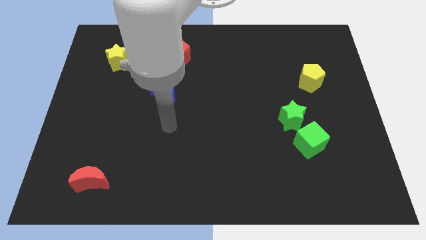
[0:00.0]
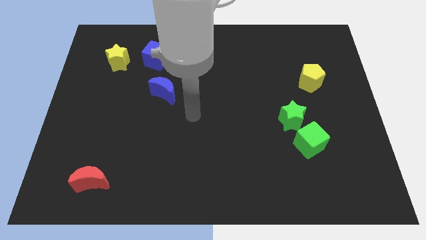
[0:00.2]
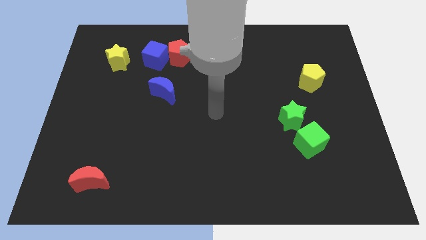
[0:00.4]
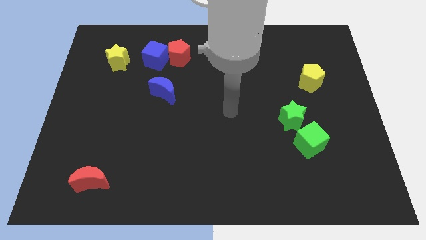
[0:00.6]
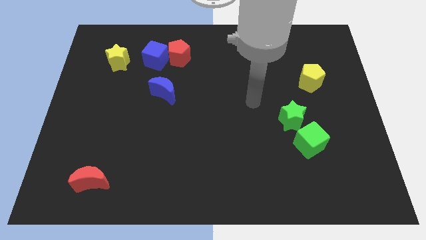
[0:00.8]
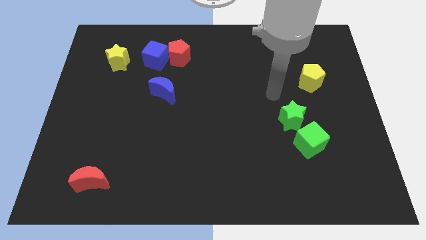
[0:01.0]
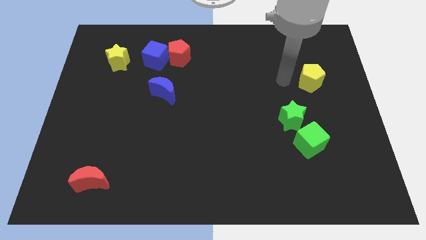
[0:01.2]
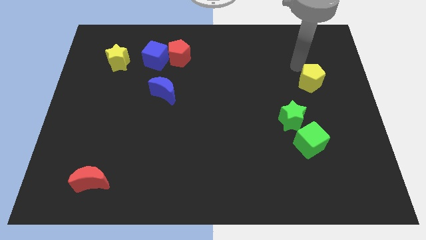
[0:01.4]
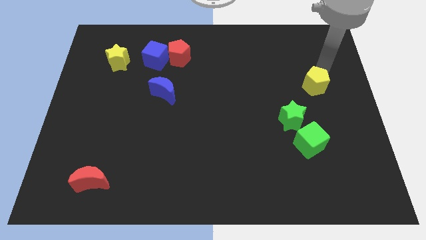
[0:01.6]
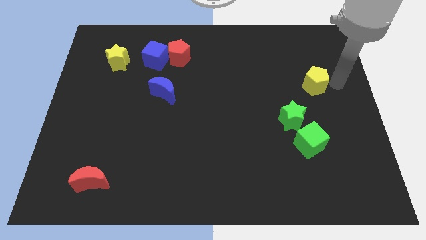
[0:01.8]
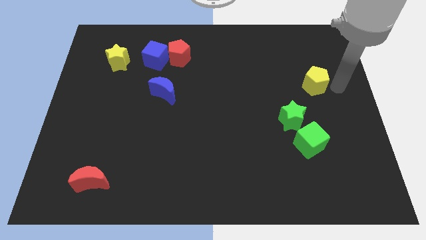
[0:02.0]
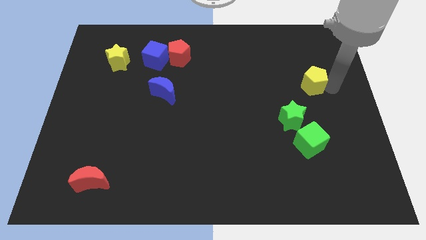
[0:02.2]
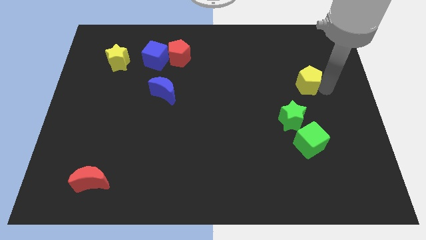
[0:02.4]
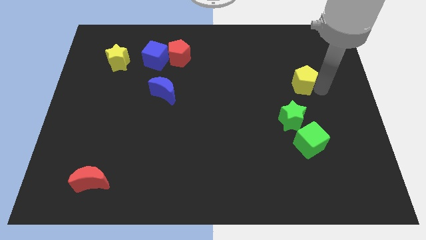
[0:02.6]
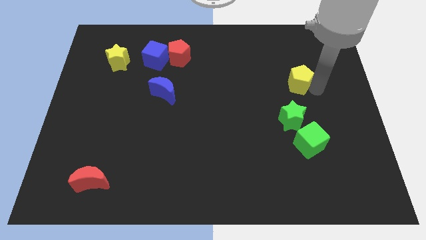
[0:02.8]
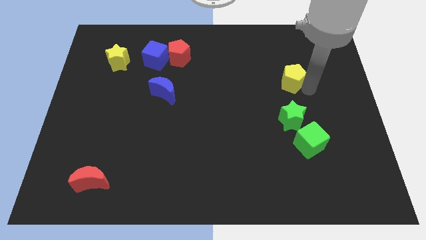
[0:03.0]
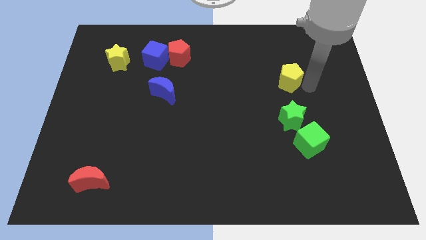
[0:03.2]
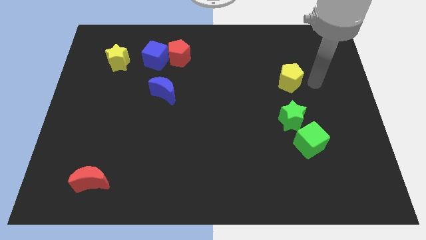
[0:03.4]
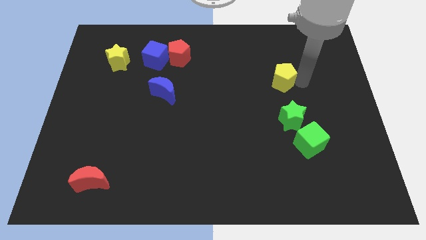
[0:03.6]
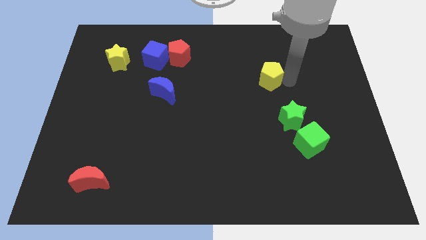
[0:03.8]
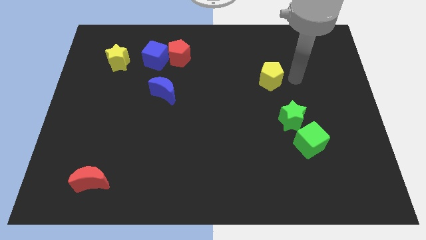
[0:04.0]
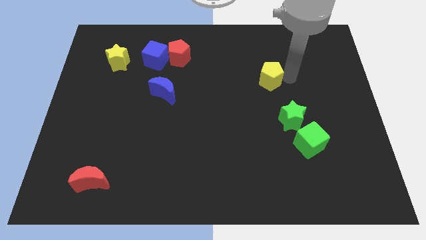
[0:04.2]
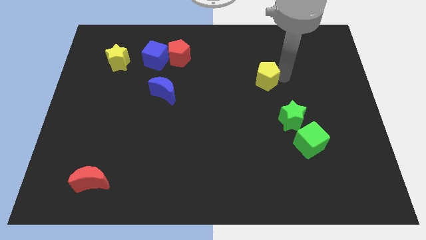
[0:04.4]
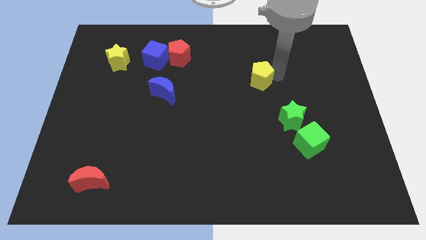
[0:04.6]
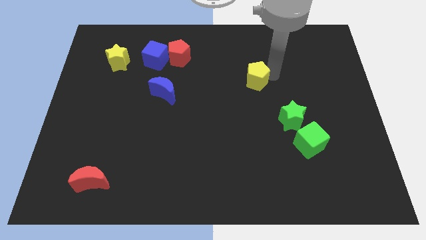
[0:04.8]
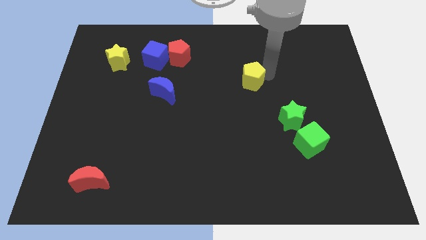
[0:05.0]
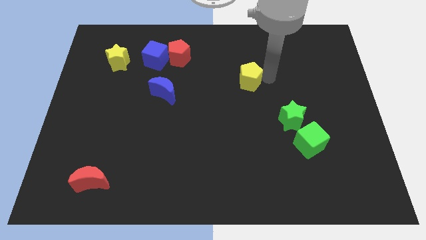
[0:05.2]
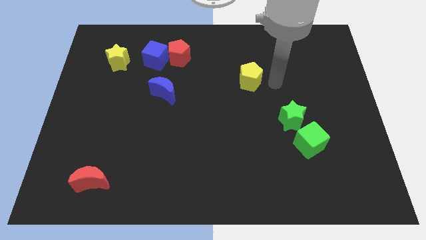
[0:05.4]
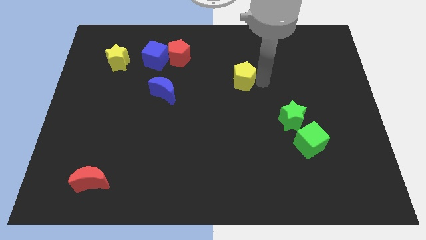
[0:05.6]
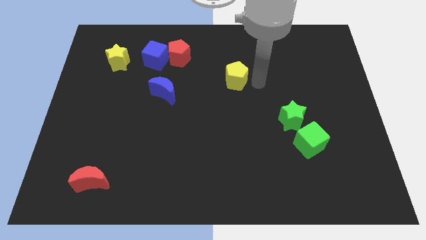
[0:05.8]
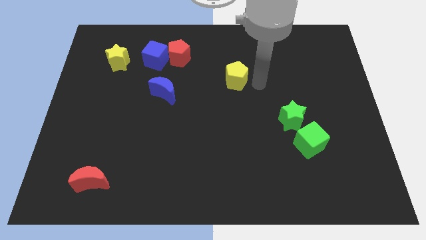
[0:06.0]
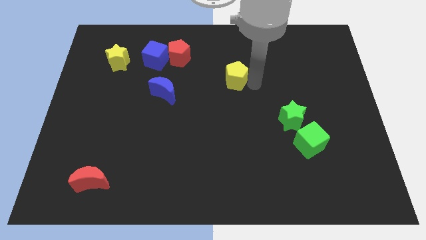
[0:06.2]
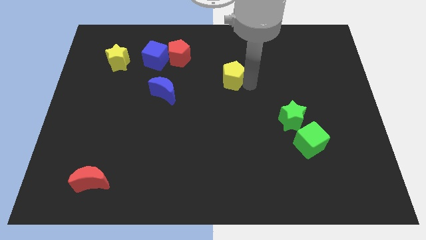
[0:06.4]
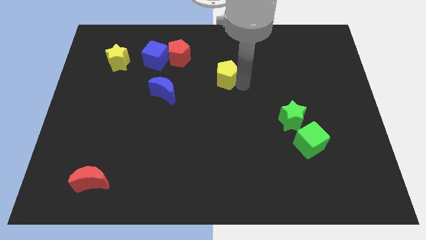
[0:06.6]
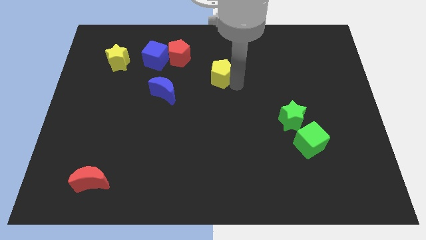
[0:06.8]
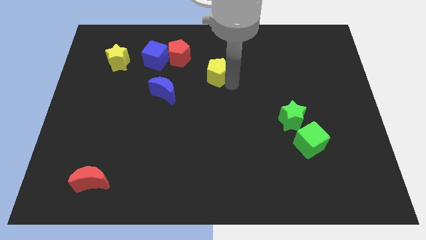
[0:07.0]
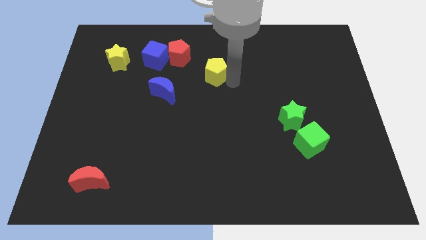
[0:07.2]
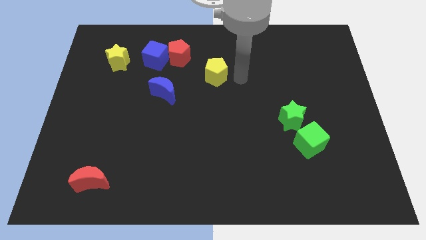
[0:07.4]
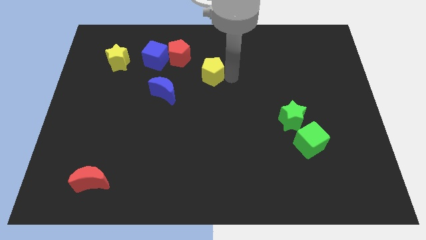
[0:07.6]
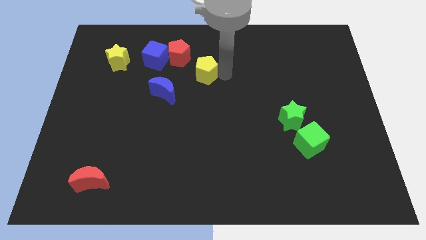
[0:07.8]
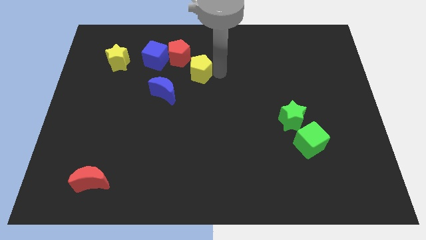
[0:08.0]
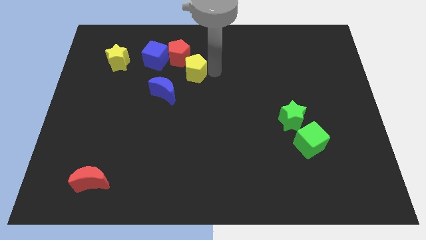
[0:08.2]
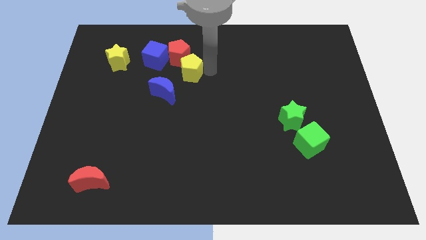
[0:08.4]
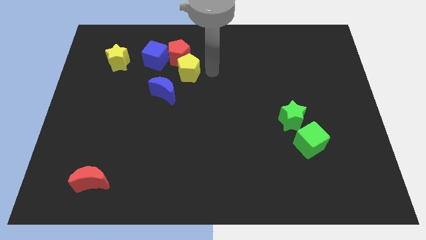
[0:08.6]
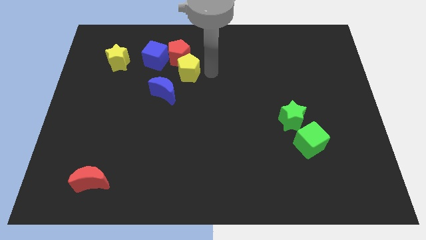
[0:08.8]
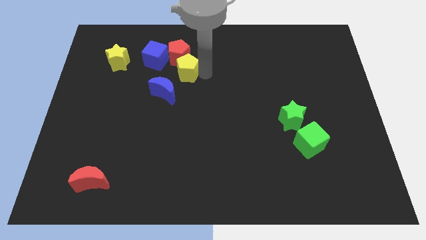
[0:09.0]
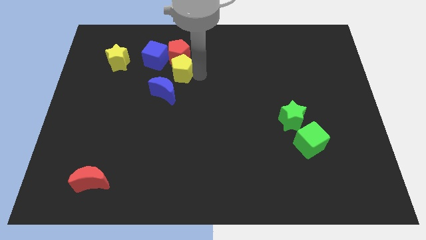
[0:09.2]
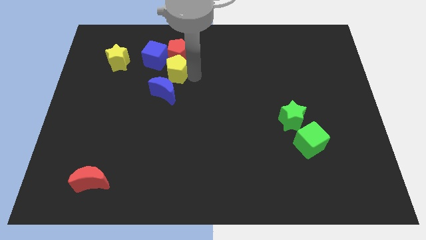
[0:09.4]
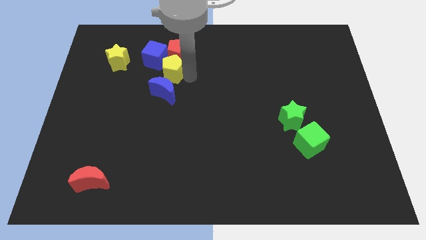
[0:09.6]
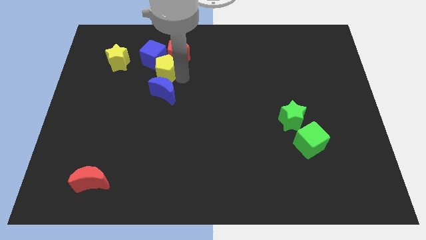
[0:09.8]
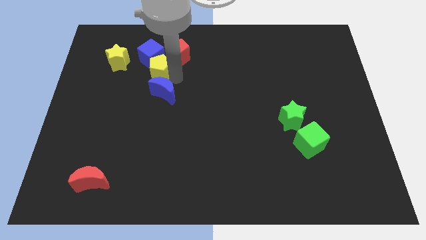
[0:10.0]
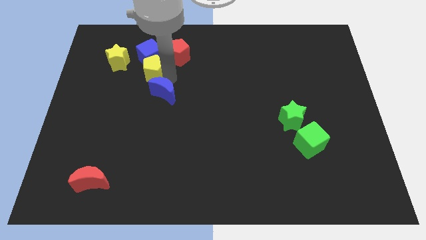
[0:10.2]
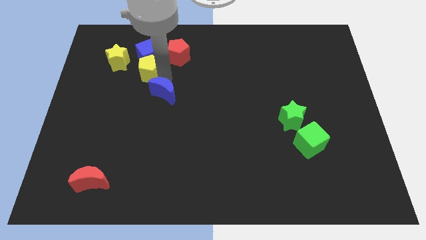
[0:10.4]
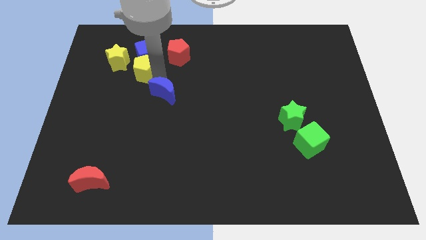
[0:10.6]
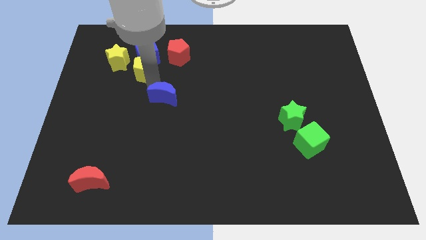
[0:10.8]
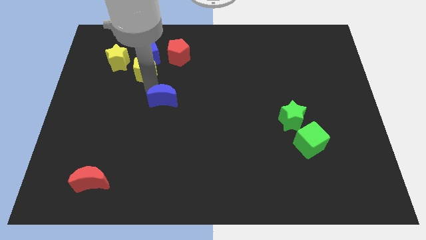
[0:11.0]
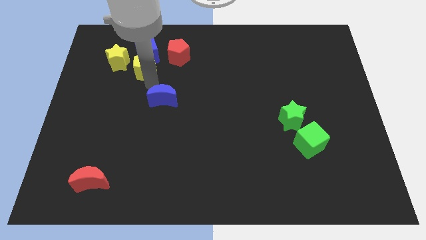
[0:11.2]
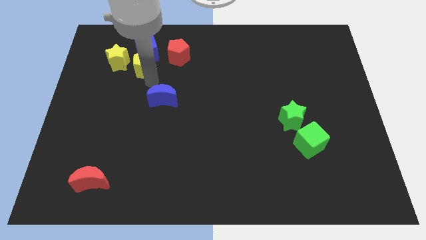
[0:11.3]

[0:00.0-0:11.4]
slide the yellow pentagon to the left of the red pentagon

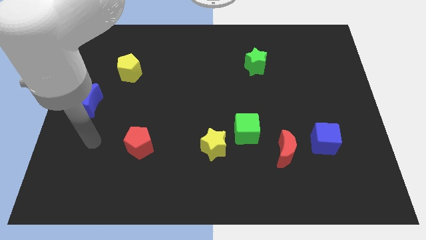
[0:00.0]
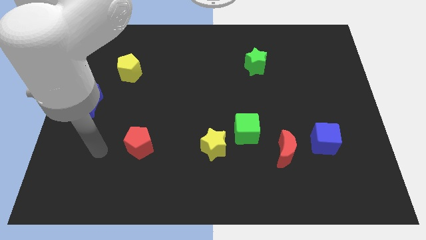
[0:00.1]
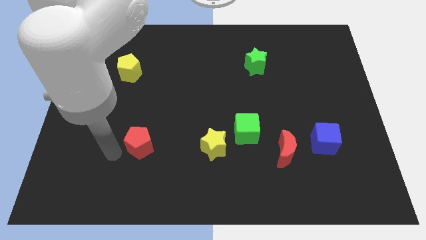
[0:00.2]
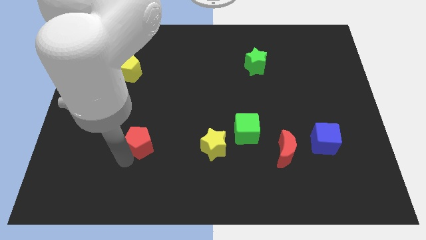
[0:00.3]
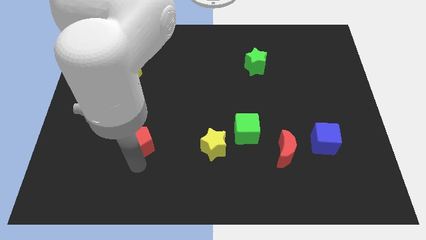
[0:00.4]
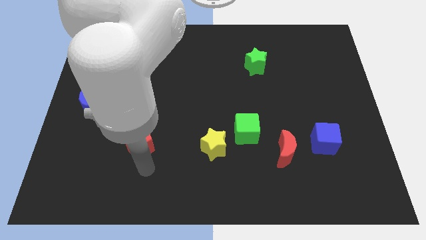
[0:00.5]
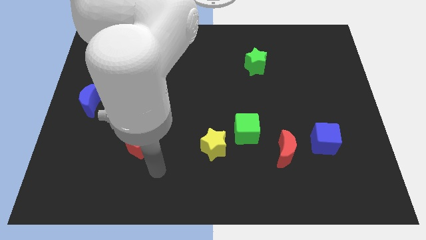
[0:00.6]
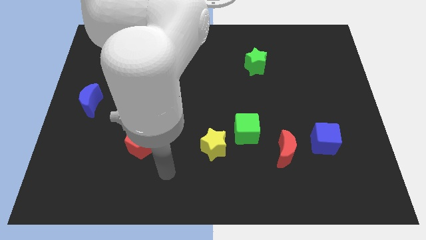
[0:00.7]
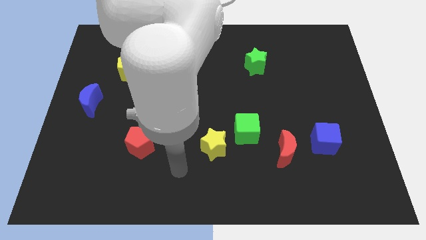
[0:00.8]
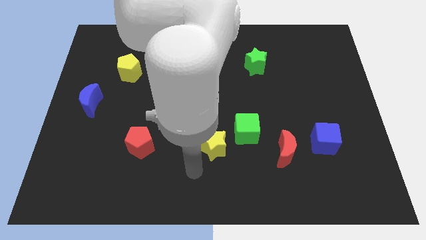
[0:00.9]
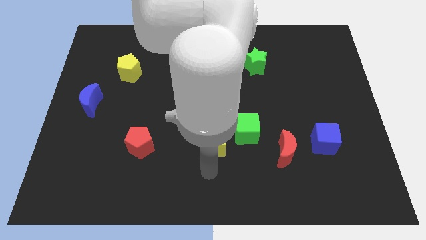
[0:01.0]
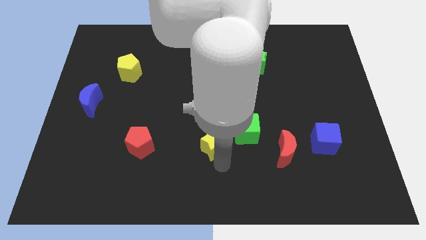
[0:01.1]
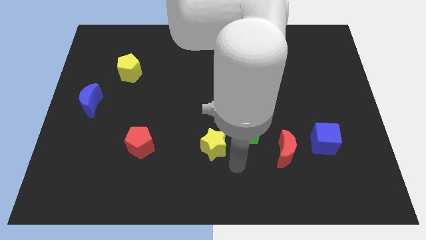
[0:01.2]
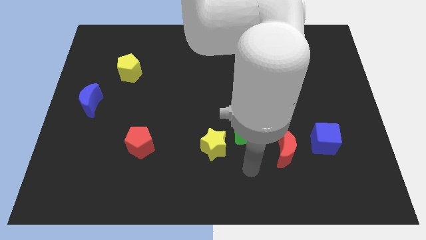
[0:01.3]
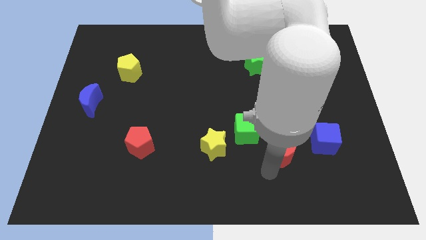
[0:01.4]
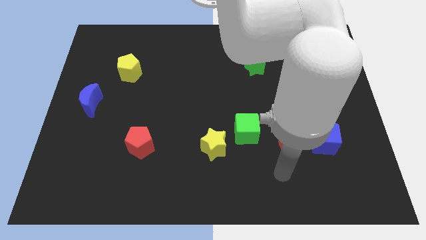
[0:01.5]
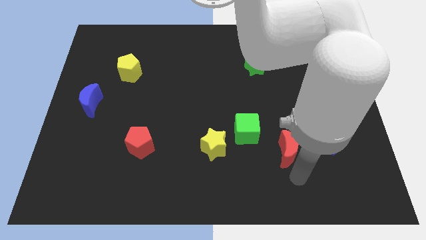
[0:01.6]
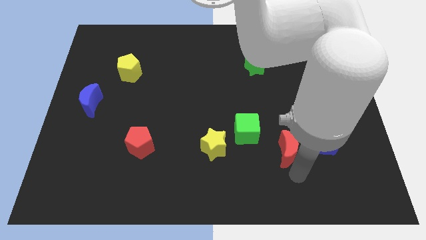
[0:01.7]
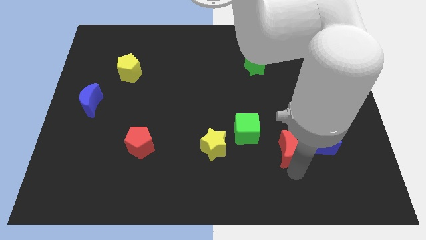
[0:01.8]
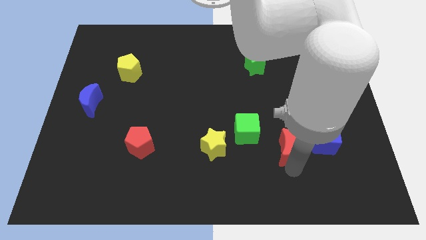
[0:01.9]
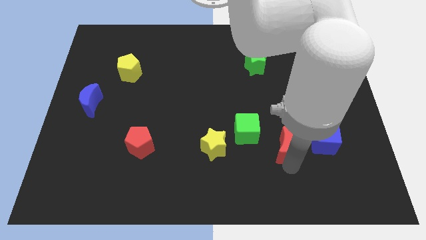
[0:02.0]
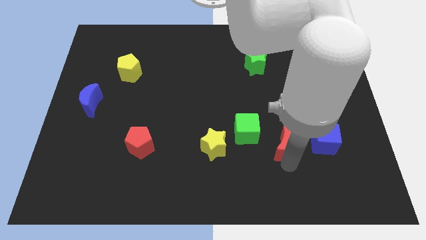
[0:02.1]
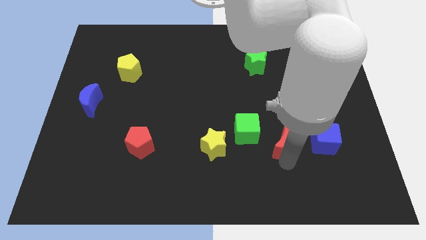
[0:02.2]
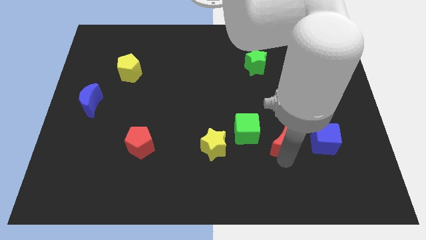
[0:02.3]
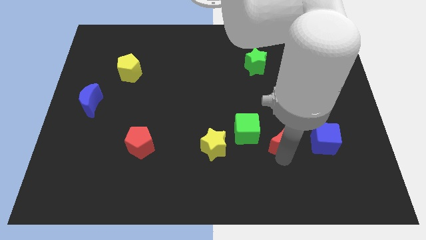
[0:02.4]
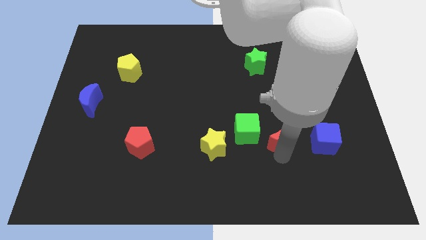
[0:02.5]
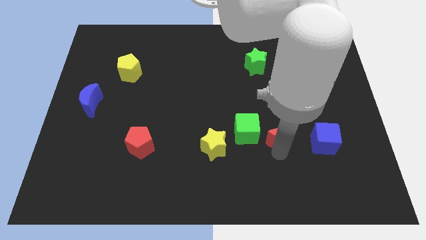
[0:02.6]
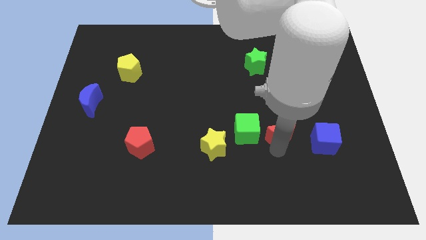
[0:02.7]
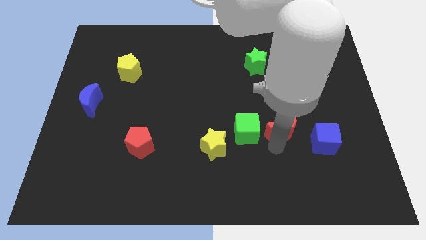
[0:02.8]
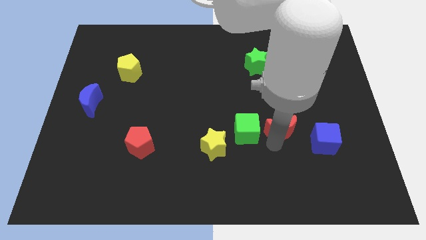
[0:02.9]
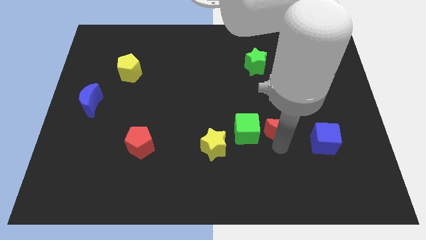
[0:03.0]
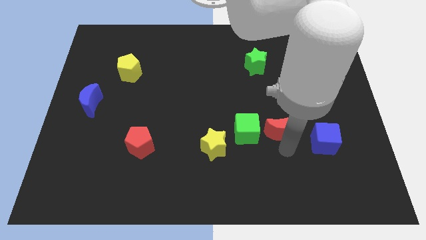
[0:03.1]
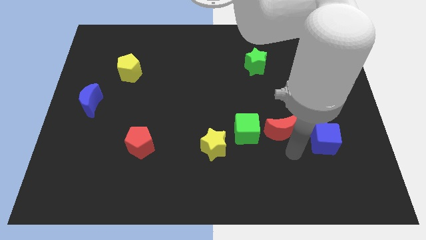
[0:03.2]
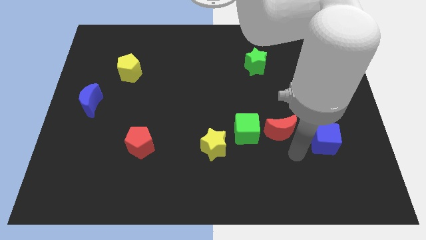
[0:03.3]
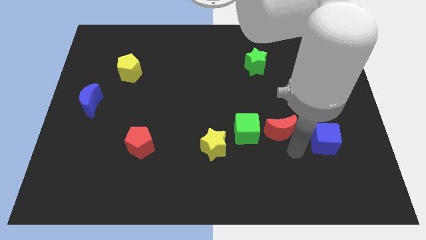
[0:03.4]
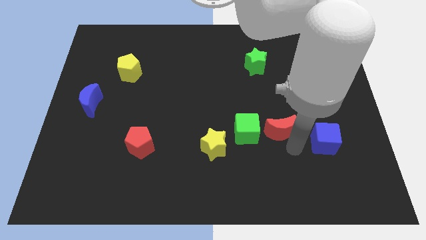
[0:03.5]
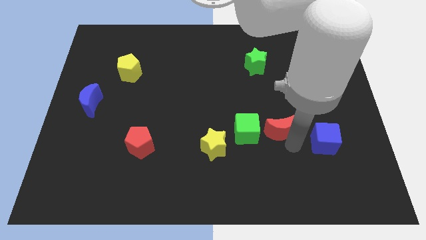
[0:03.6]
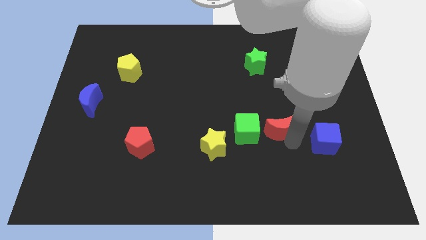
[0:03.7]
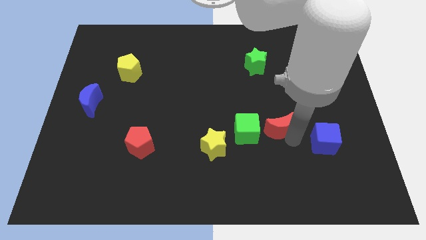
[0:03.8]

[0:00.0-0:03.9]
move the red moon diagonally up and to the right of the green cube
